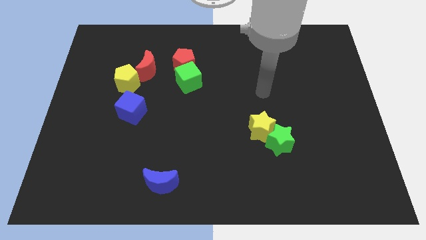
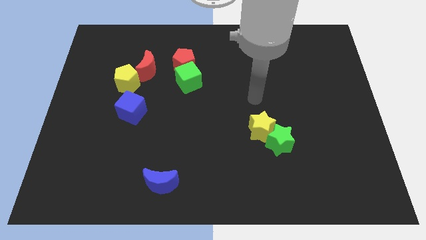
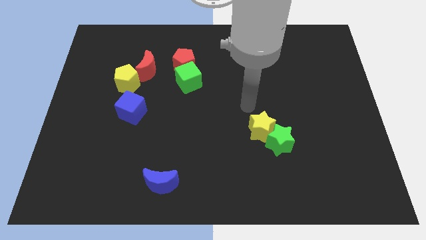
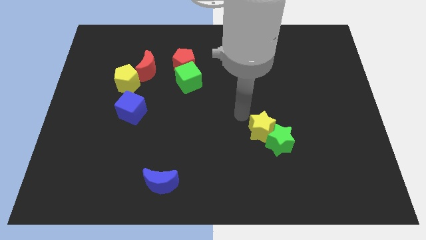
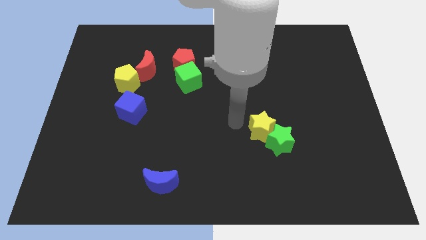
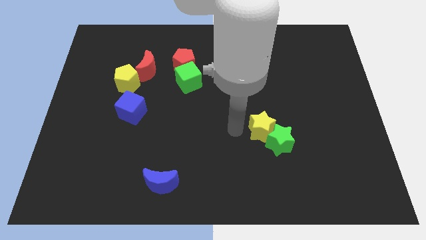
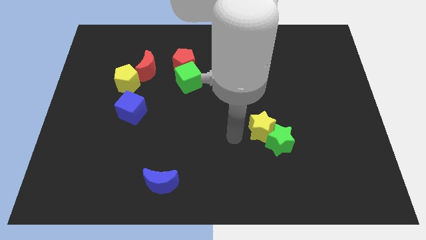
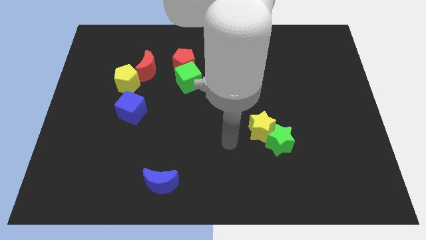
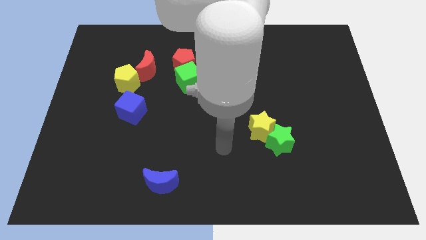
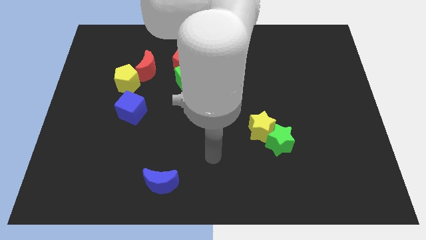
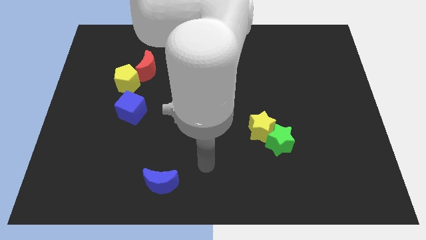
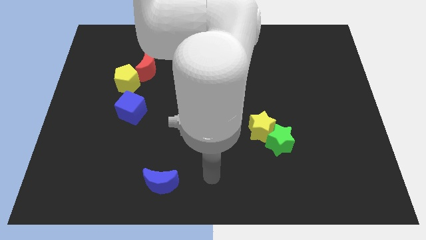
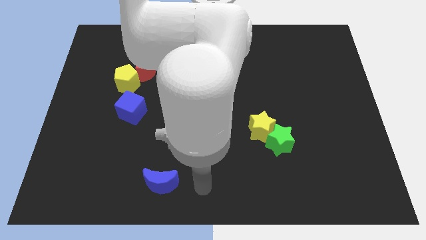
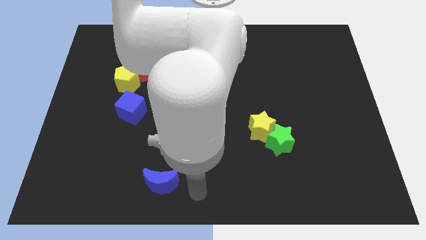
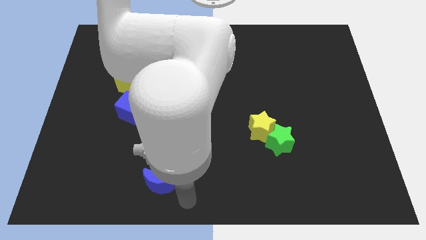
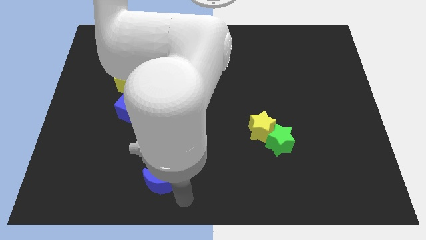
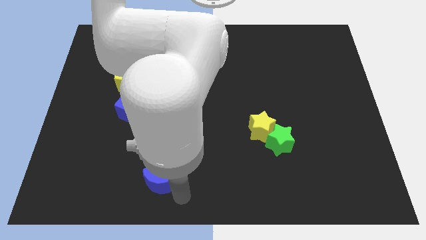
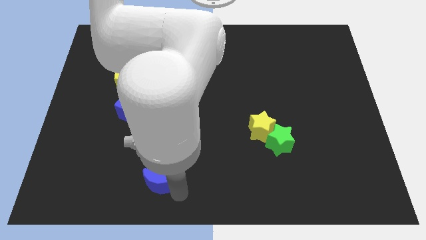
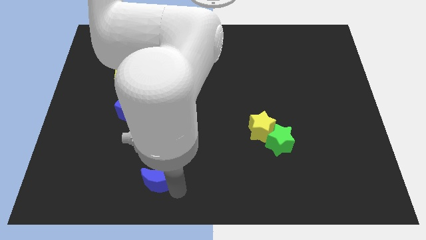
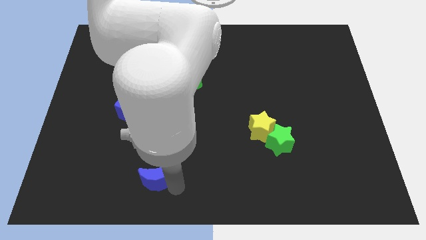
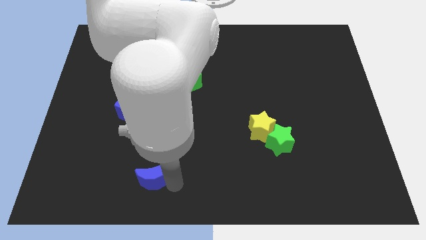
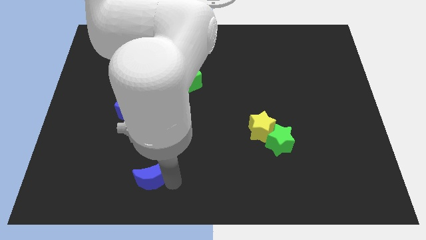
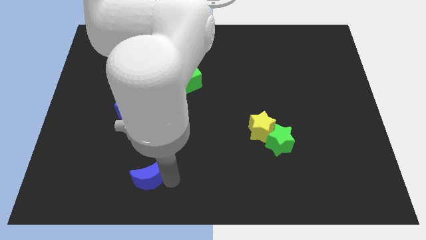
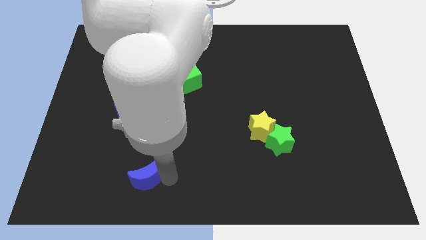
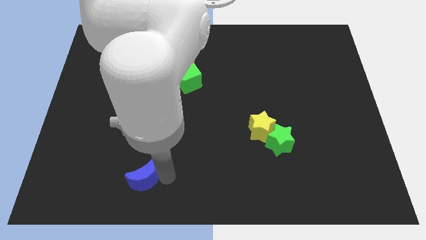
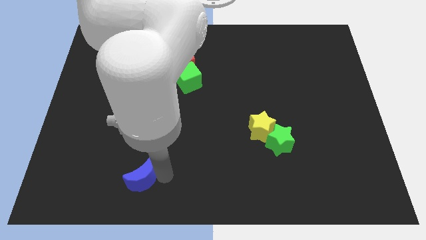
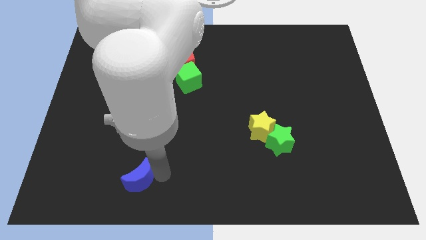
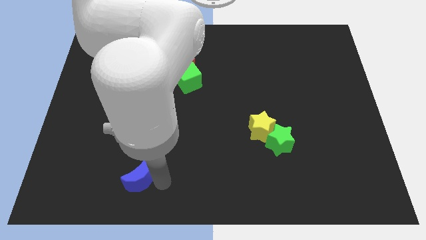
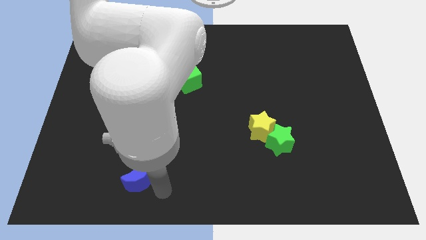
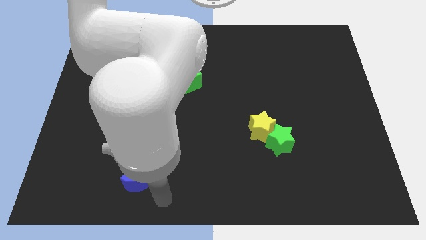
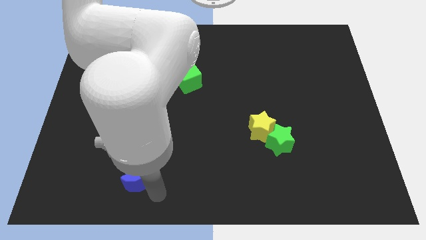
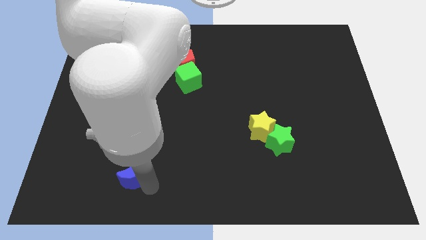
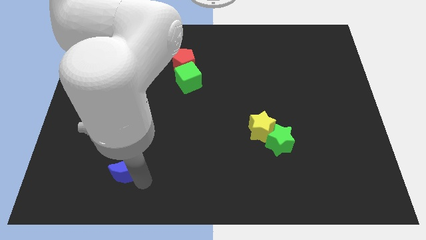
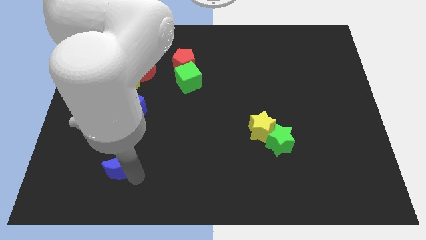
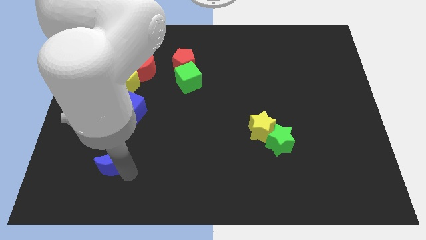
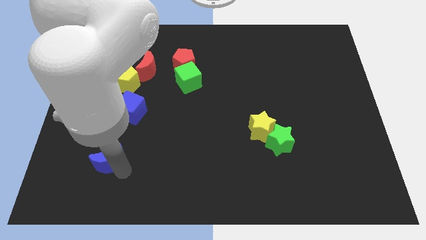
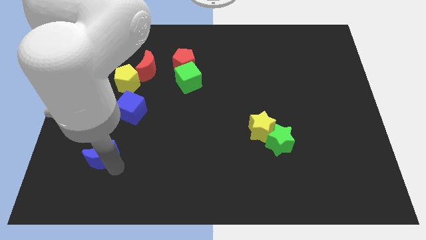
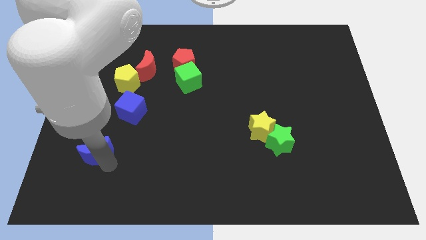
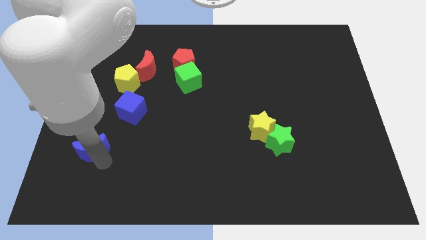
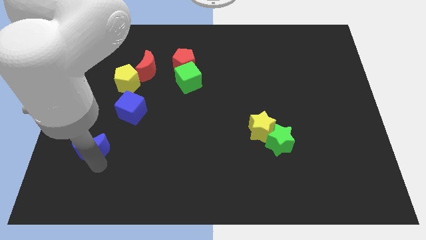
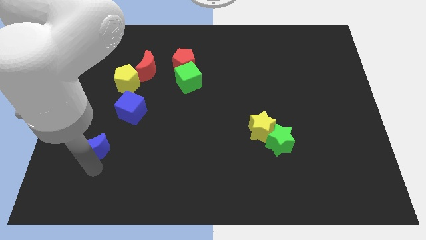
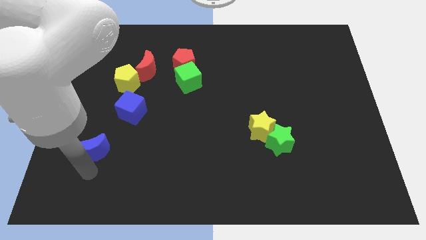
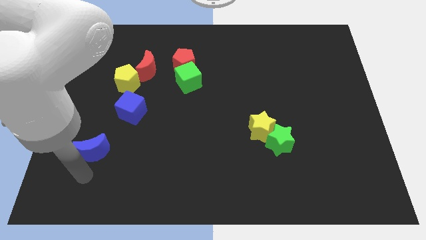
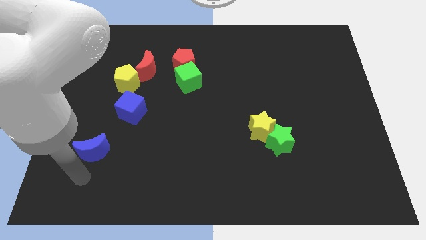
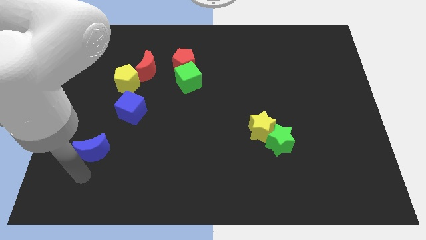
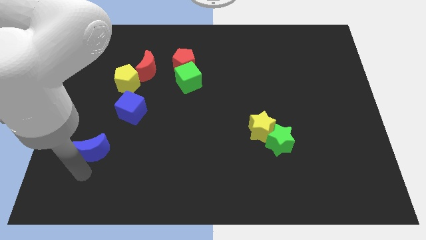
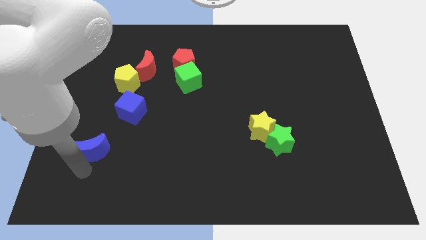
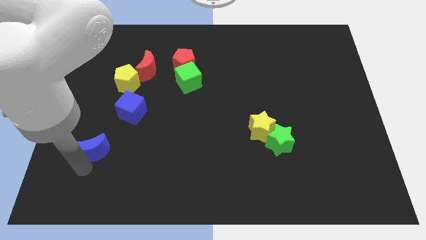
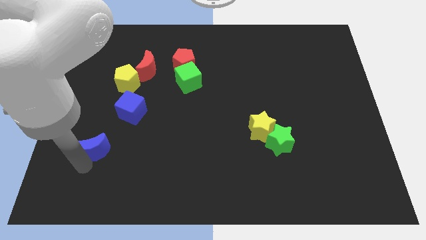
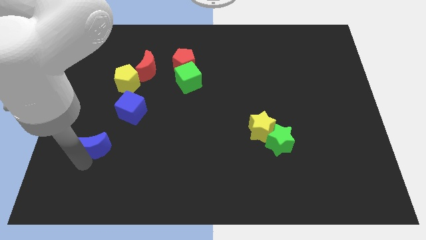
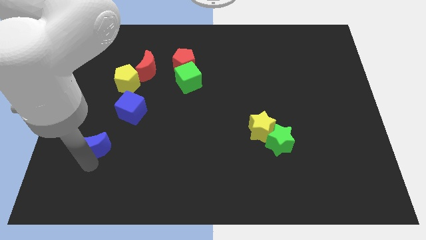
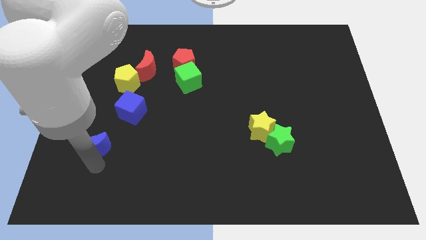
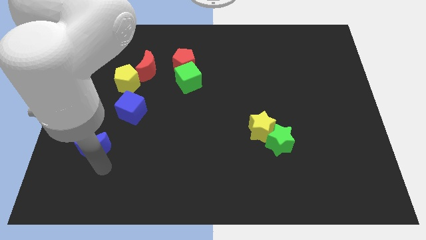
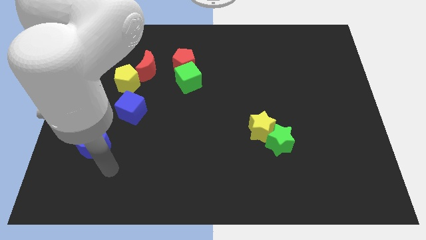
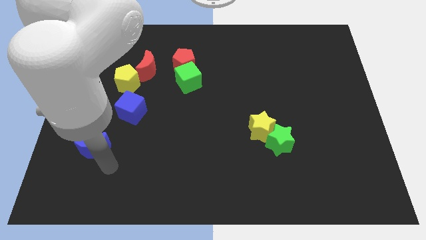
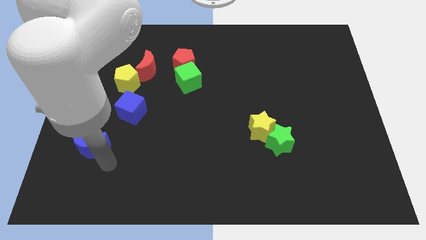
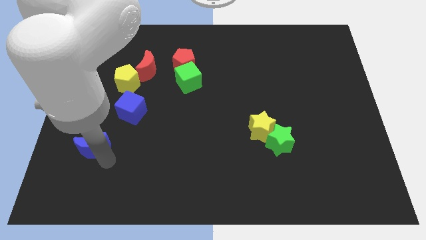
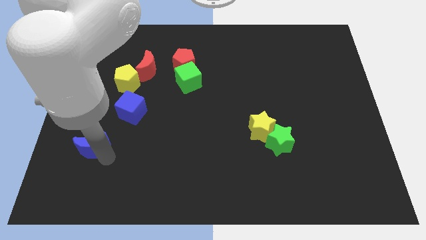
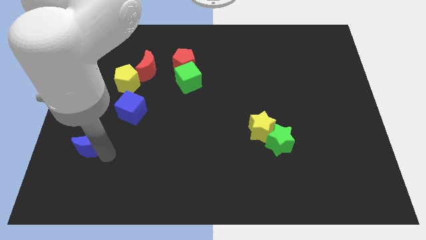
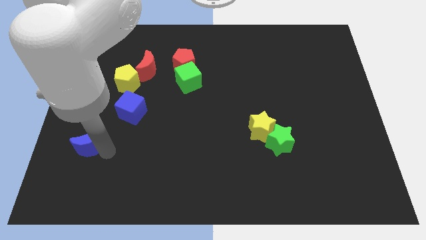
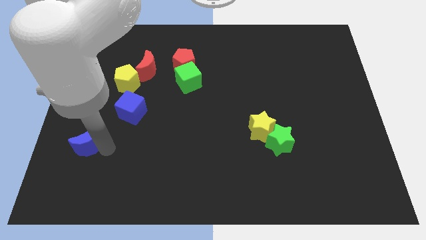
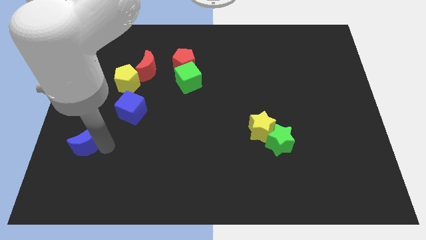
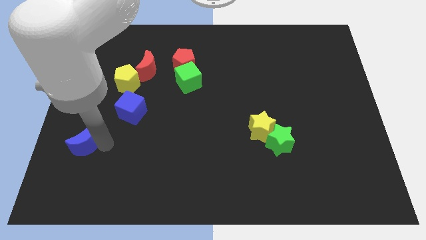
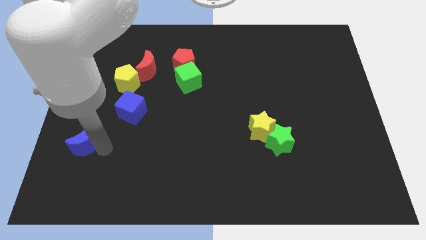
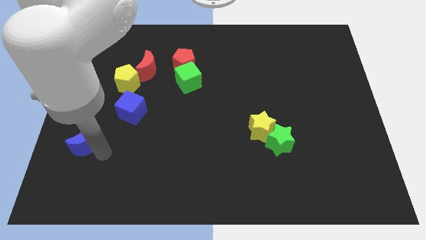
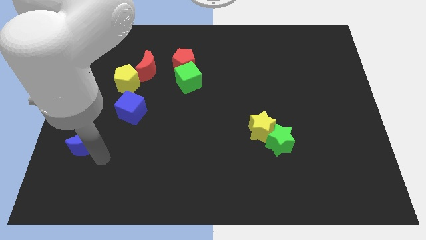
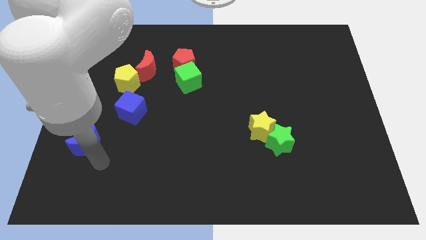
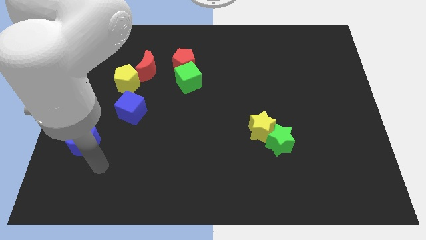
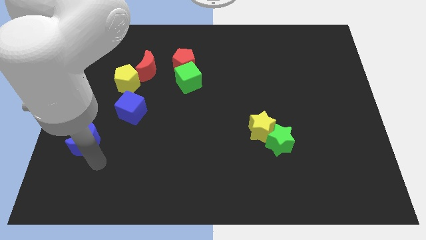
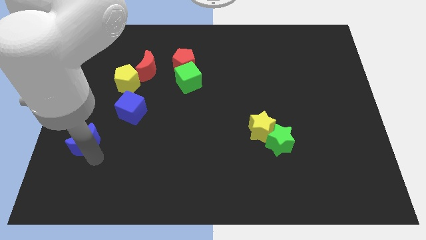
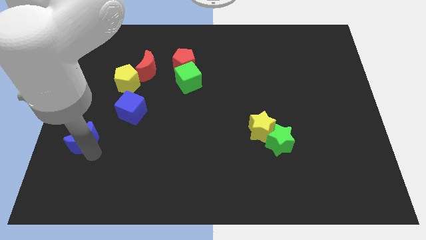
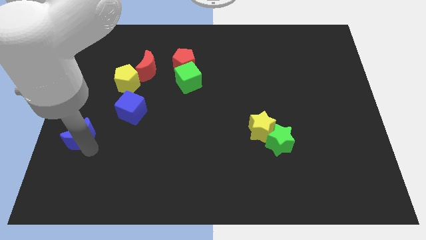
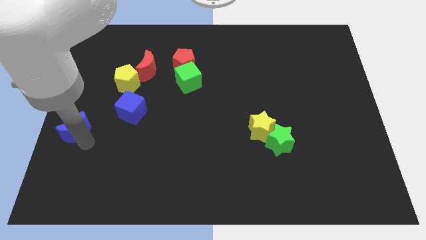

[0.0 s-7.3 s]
move the blue moon to the left side of the board
